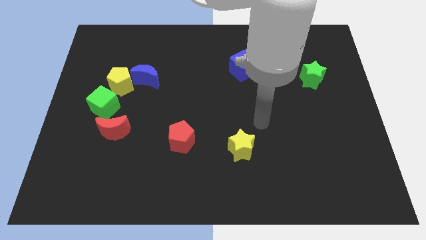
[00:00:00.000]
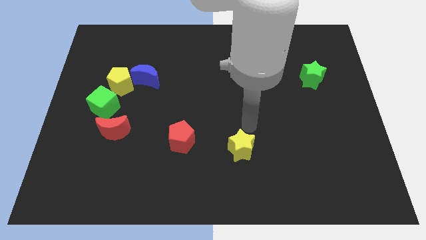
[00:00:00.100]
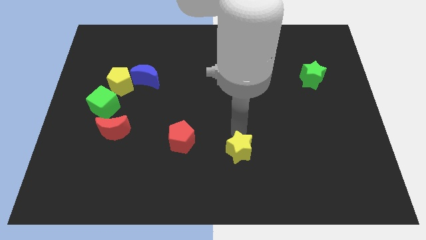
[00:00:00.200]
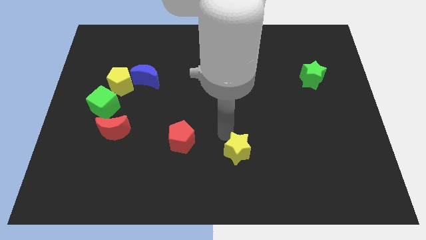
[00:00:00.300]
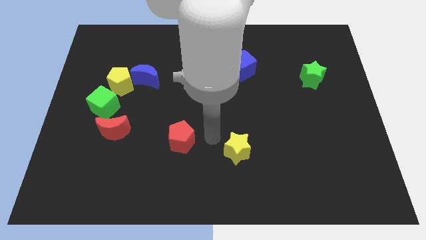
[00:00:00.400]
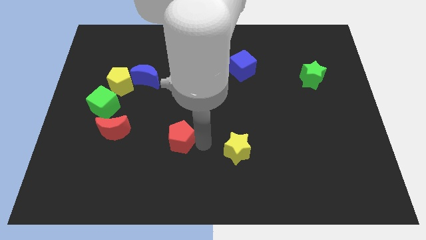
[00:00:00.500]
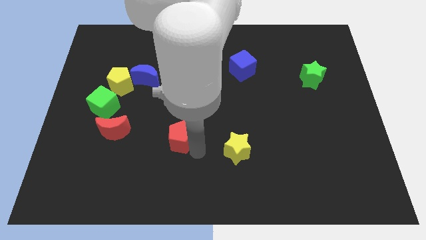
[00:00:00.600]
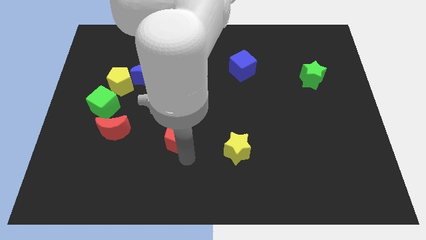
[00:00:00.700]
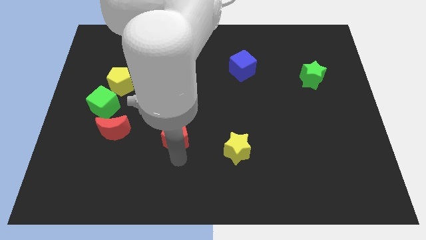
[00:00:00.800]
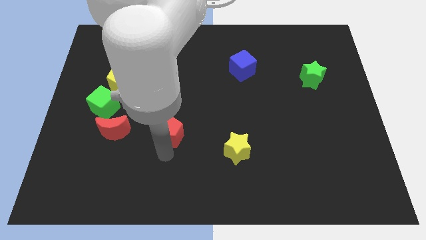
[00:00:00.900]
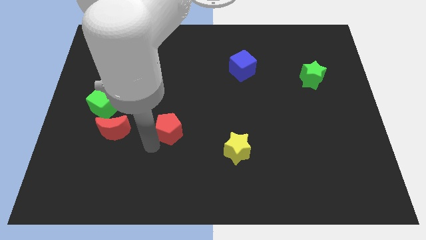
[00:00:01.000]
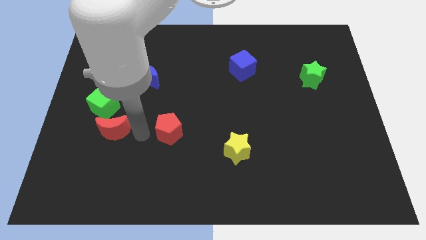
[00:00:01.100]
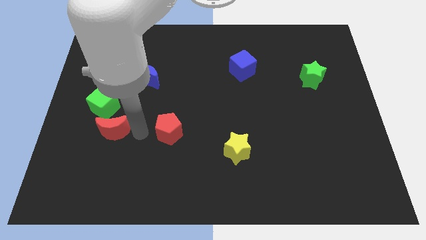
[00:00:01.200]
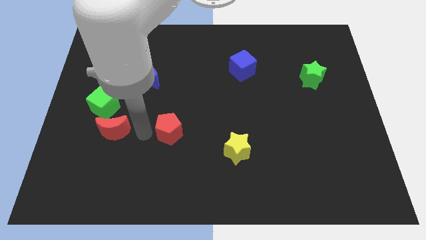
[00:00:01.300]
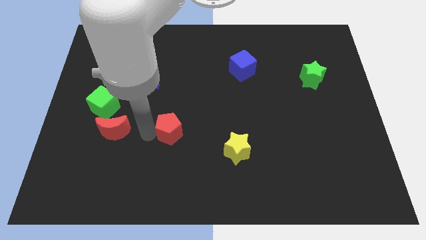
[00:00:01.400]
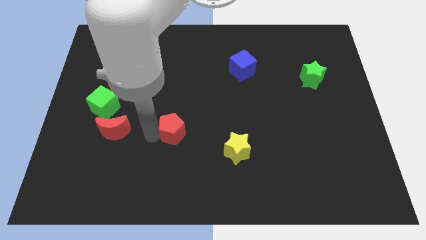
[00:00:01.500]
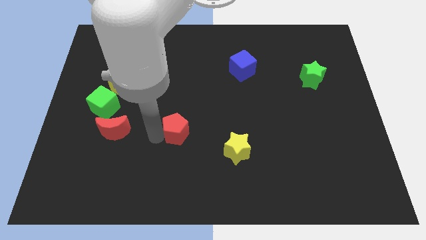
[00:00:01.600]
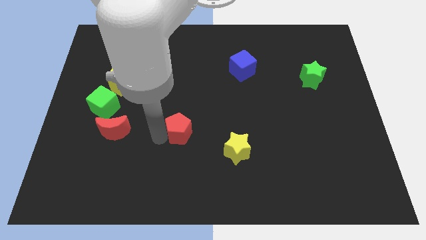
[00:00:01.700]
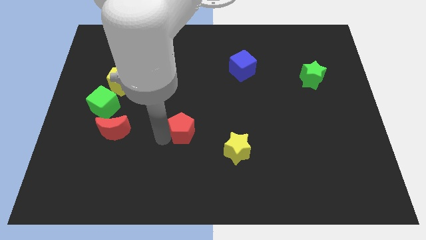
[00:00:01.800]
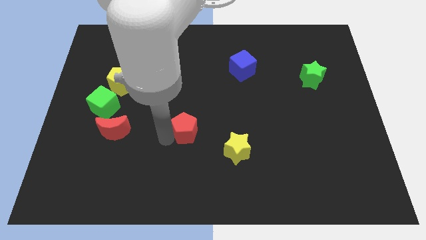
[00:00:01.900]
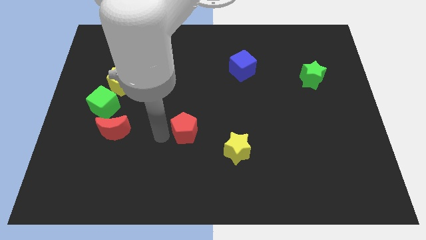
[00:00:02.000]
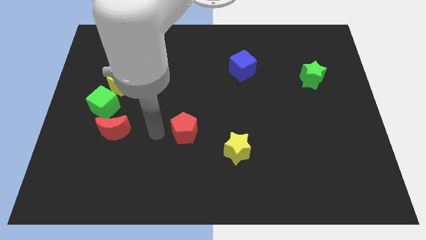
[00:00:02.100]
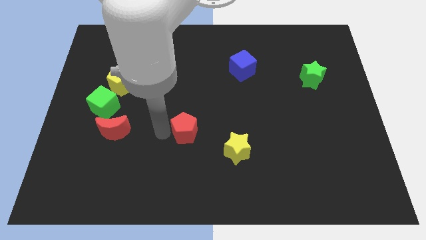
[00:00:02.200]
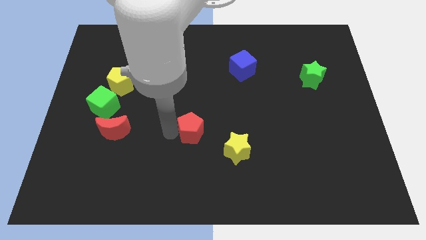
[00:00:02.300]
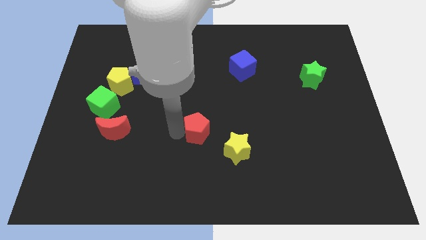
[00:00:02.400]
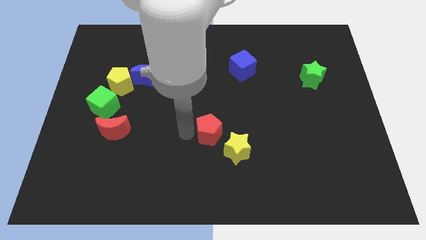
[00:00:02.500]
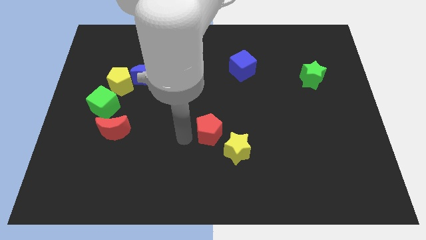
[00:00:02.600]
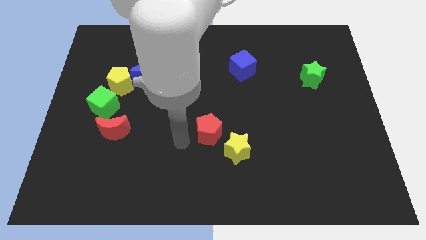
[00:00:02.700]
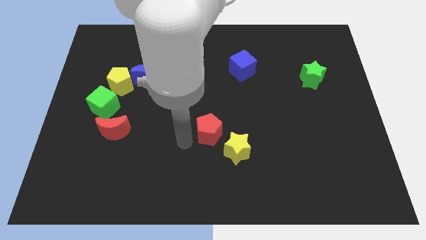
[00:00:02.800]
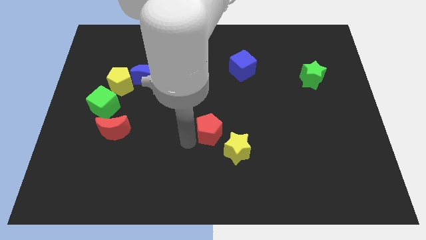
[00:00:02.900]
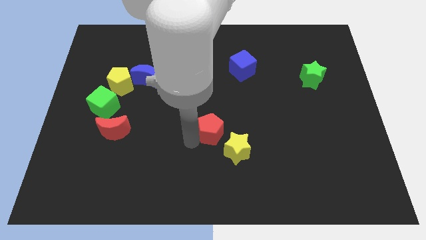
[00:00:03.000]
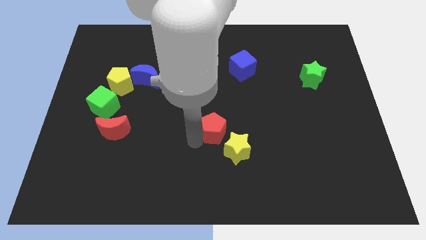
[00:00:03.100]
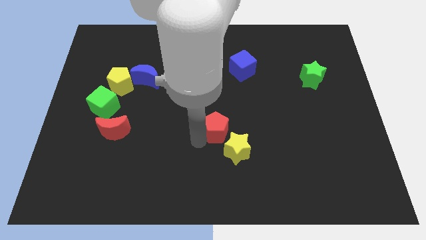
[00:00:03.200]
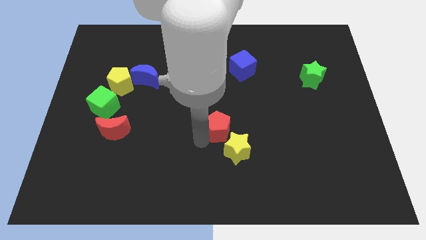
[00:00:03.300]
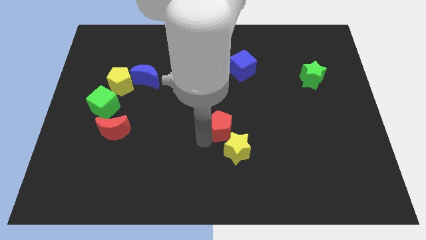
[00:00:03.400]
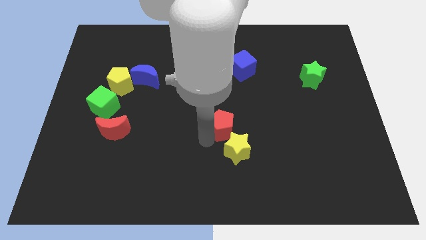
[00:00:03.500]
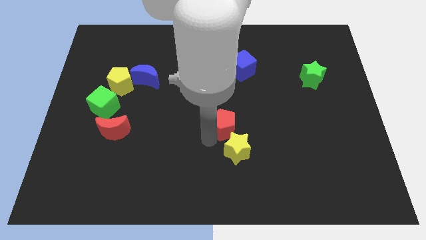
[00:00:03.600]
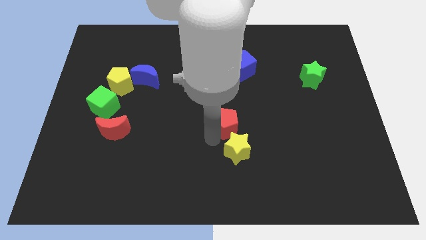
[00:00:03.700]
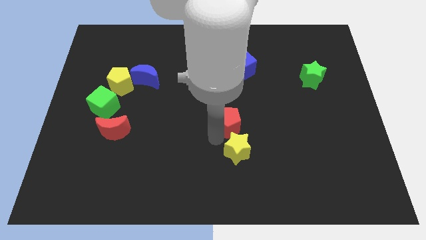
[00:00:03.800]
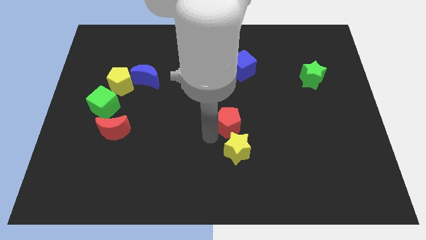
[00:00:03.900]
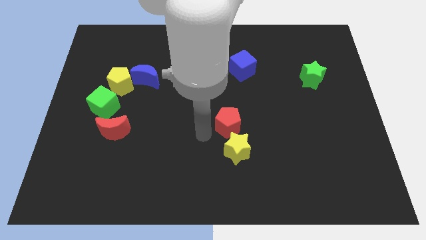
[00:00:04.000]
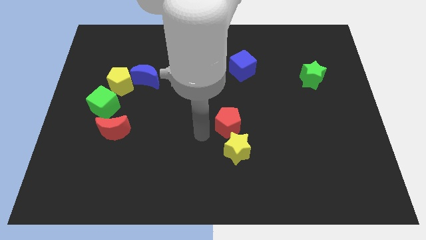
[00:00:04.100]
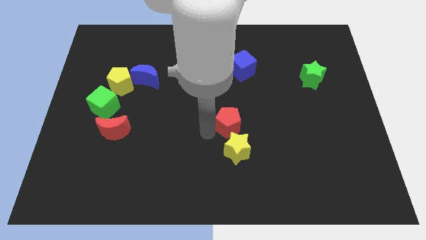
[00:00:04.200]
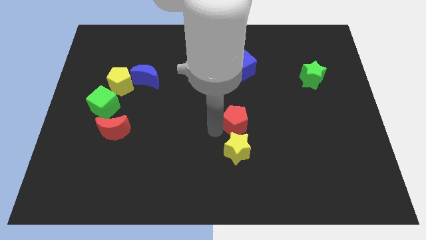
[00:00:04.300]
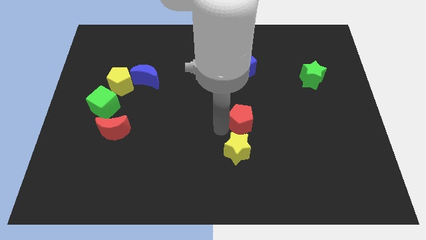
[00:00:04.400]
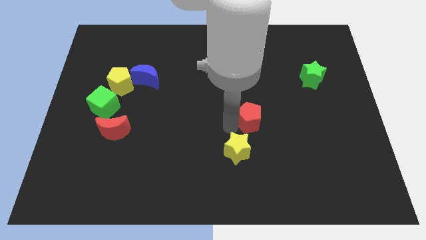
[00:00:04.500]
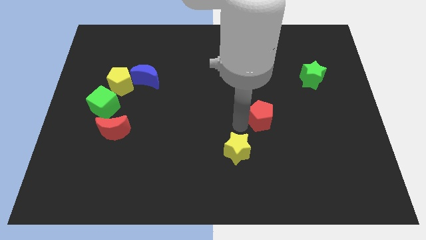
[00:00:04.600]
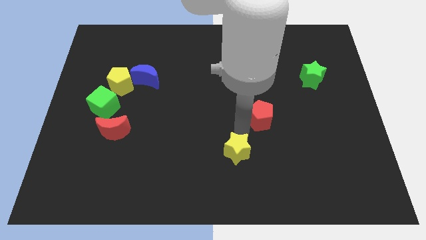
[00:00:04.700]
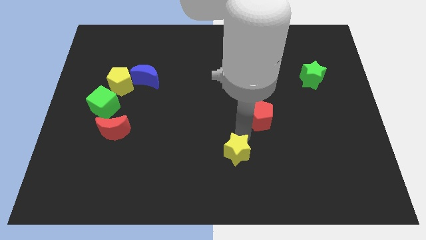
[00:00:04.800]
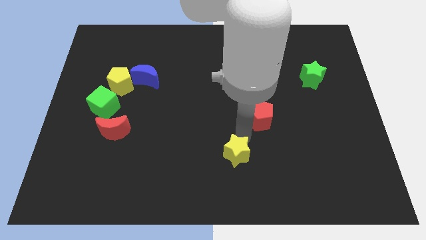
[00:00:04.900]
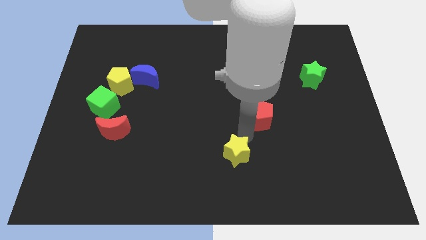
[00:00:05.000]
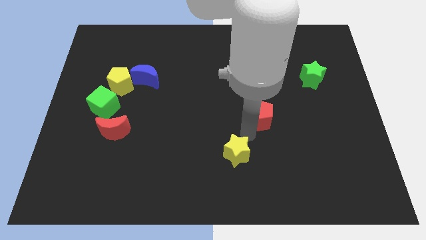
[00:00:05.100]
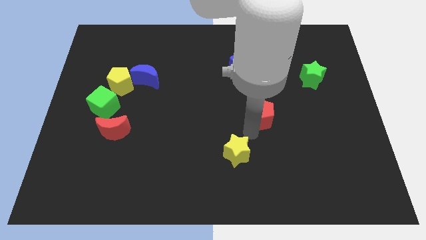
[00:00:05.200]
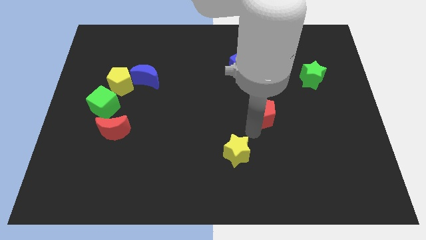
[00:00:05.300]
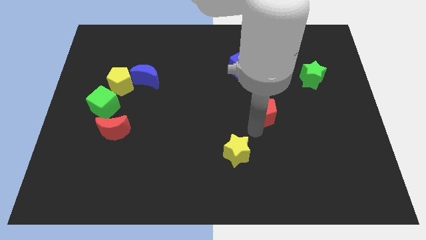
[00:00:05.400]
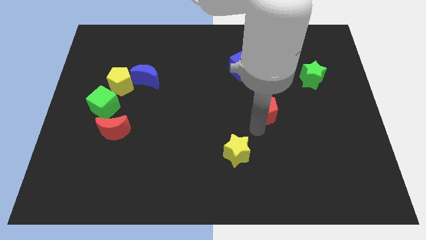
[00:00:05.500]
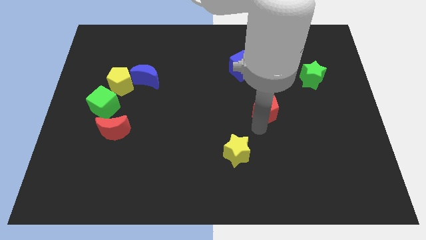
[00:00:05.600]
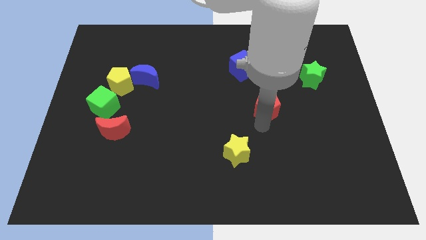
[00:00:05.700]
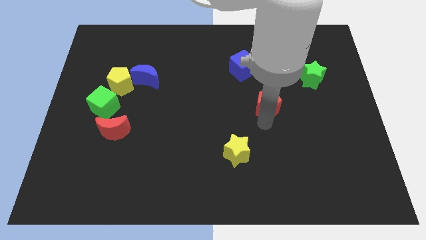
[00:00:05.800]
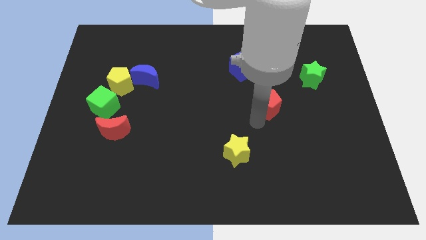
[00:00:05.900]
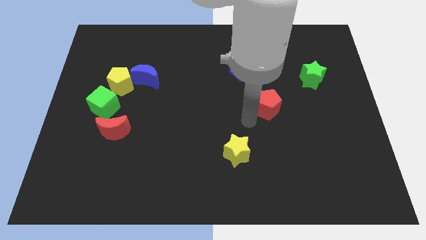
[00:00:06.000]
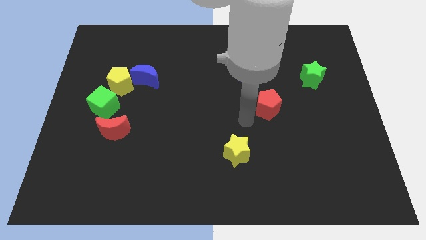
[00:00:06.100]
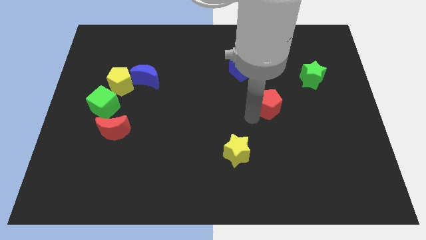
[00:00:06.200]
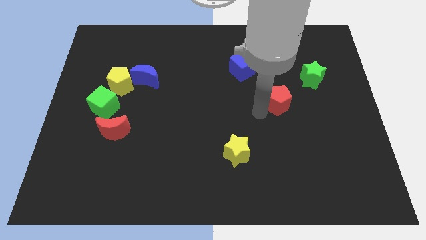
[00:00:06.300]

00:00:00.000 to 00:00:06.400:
put the red pentagon to the bottom left side of the green star
